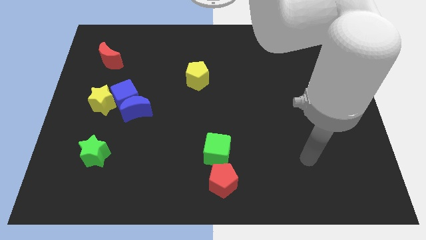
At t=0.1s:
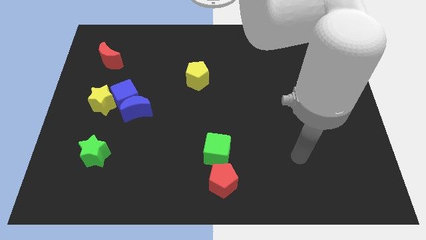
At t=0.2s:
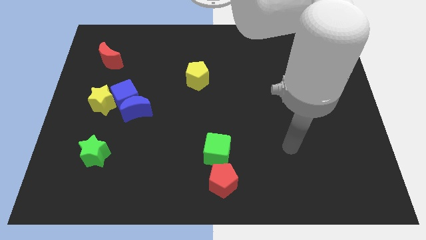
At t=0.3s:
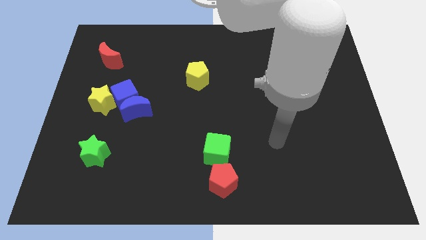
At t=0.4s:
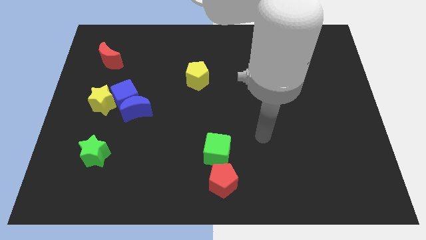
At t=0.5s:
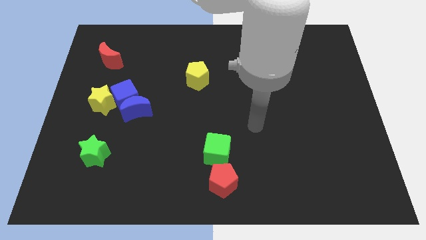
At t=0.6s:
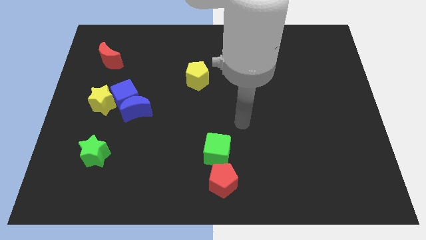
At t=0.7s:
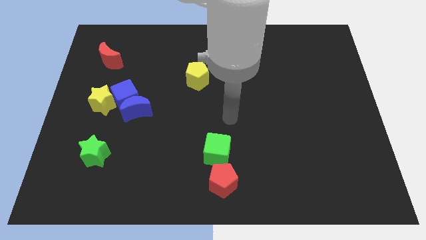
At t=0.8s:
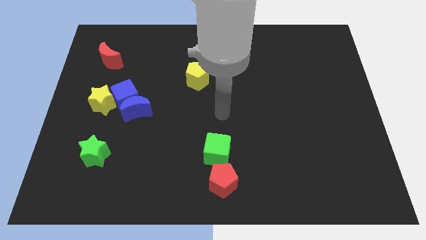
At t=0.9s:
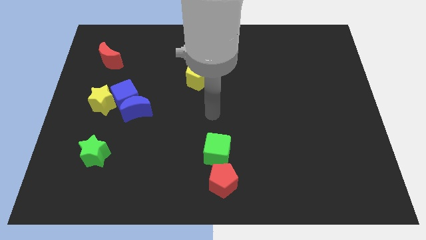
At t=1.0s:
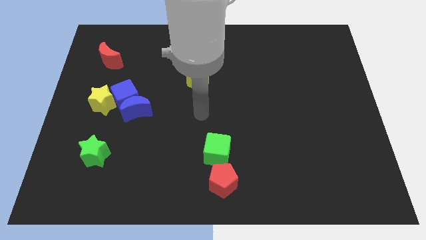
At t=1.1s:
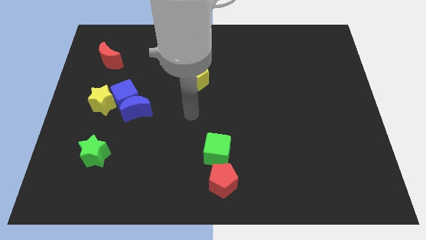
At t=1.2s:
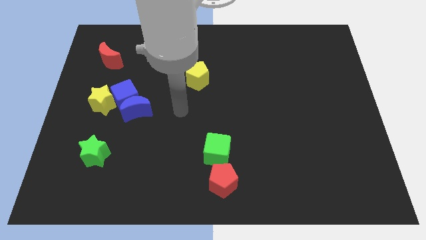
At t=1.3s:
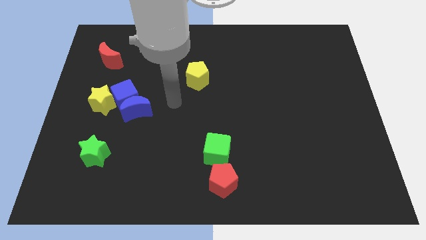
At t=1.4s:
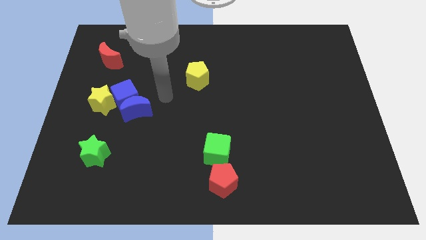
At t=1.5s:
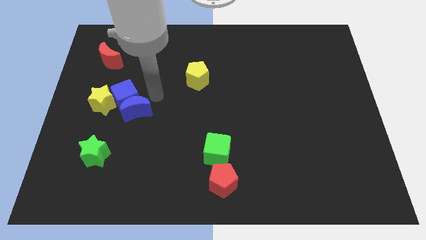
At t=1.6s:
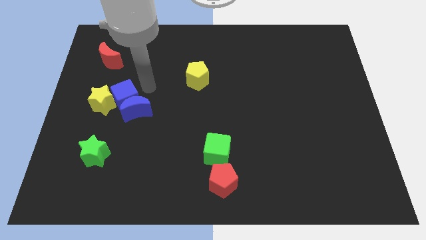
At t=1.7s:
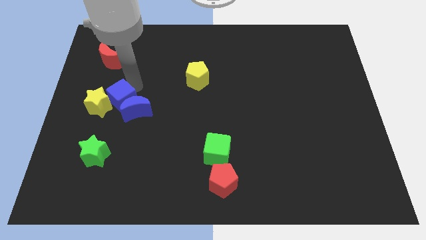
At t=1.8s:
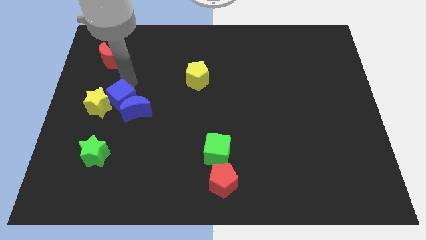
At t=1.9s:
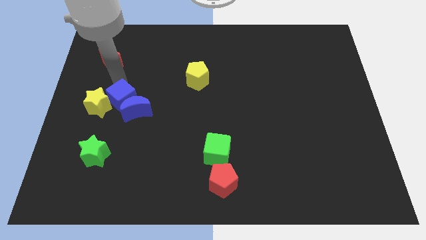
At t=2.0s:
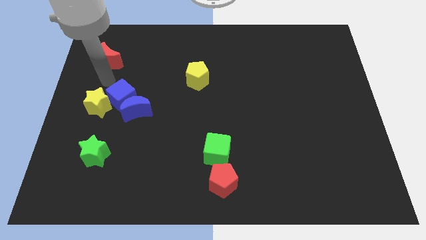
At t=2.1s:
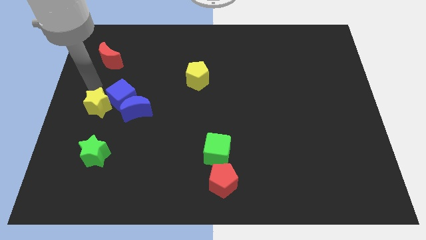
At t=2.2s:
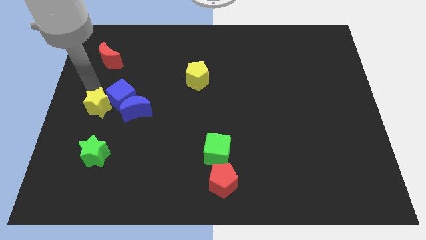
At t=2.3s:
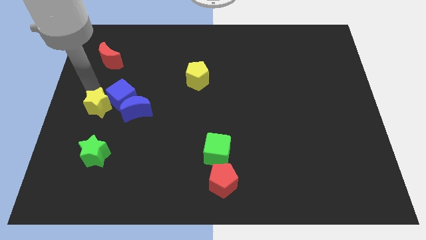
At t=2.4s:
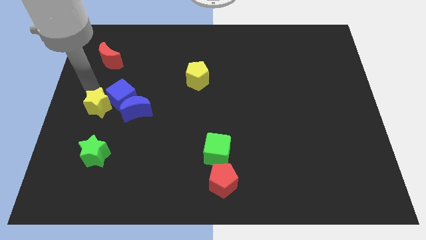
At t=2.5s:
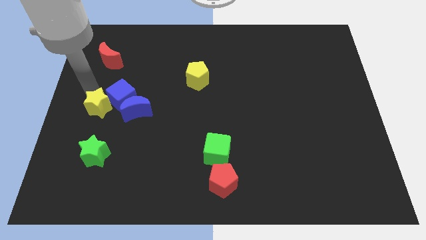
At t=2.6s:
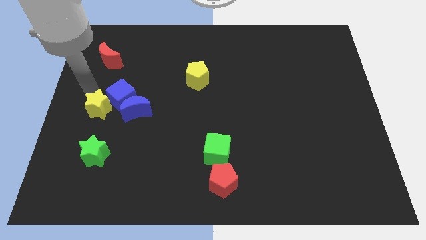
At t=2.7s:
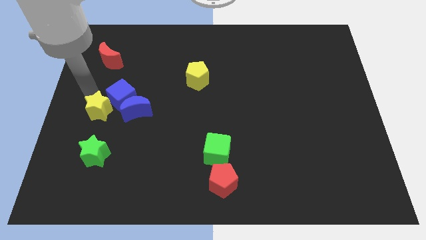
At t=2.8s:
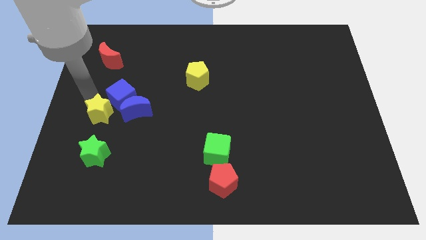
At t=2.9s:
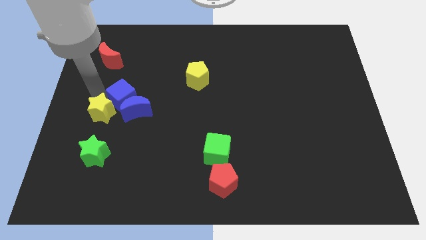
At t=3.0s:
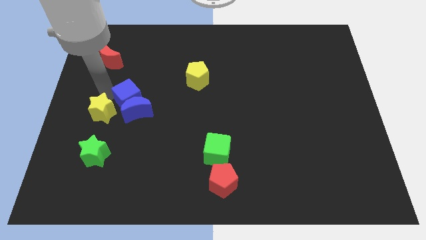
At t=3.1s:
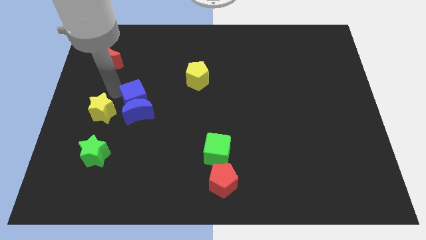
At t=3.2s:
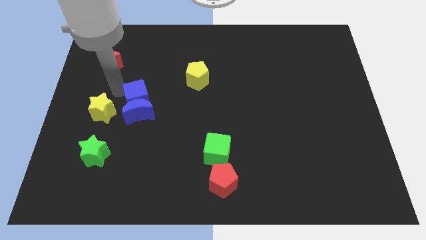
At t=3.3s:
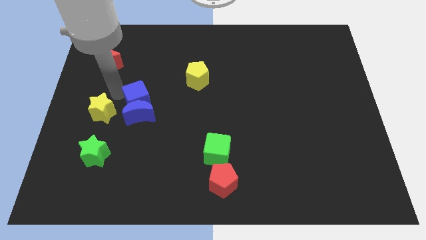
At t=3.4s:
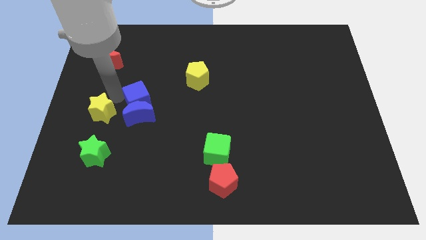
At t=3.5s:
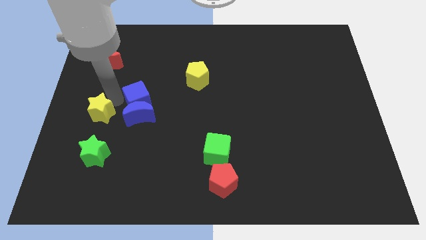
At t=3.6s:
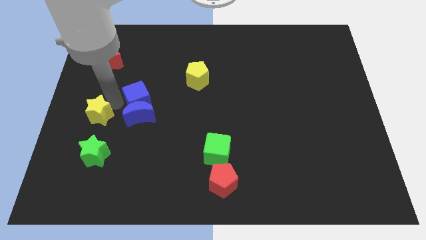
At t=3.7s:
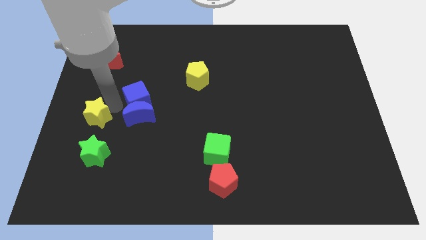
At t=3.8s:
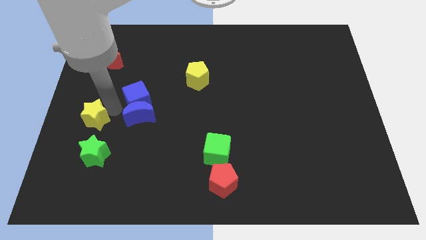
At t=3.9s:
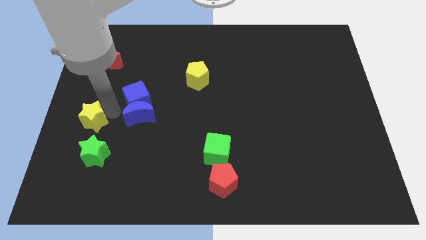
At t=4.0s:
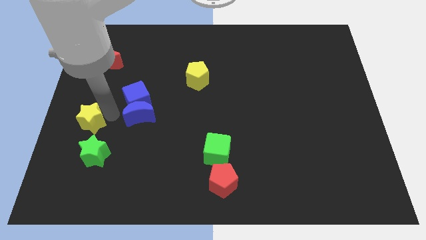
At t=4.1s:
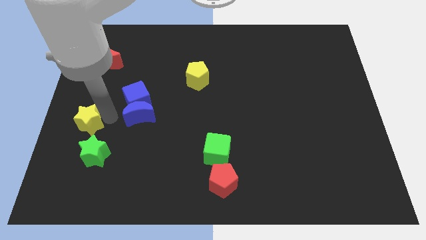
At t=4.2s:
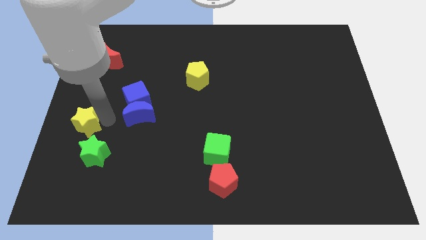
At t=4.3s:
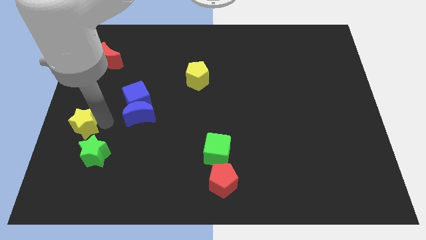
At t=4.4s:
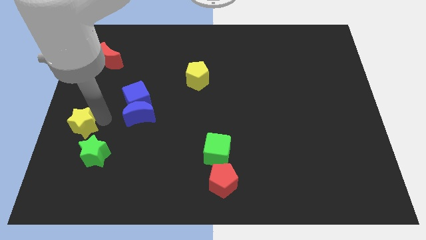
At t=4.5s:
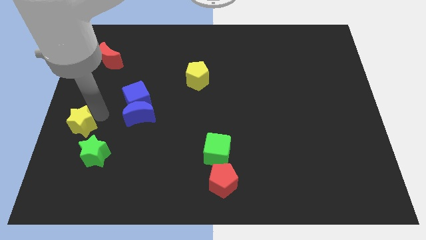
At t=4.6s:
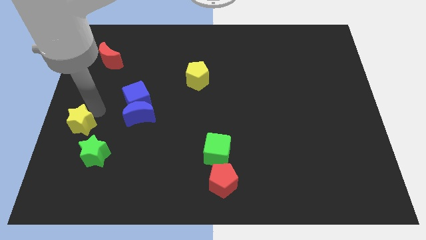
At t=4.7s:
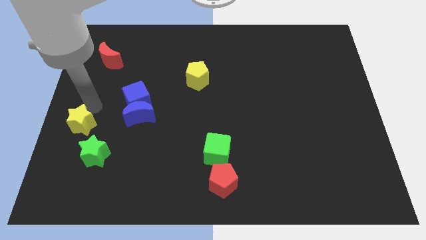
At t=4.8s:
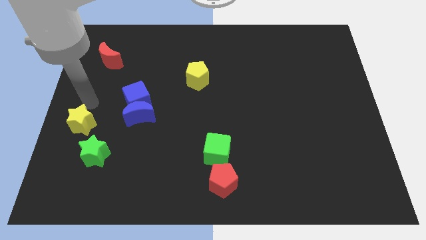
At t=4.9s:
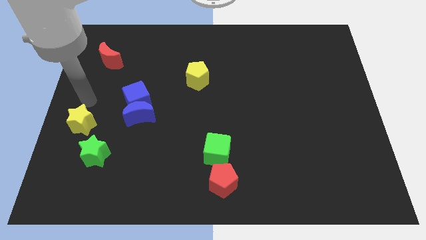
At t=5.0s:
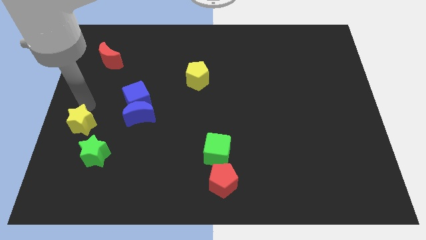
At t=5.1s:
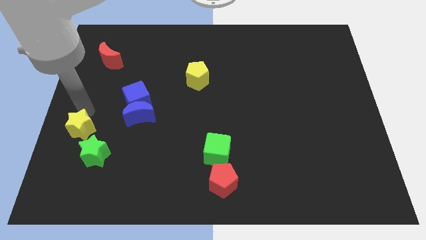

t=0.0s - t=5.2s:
move the yellow star down a little

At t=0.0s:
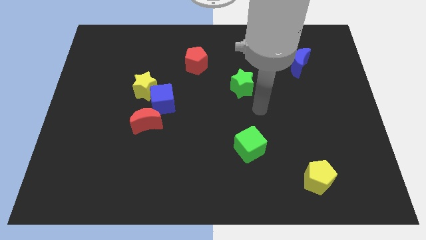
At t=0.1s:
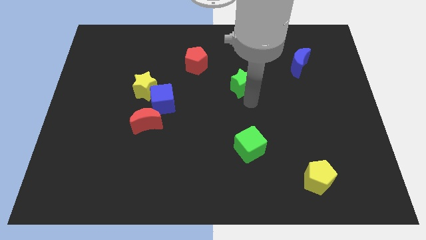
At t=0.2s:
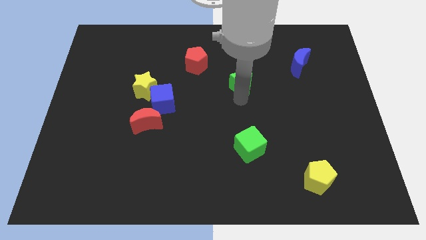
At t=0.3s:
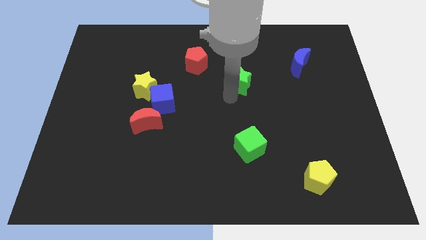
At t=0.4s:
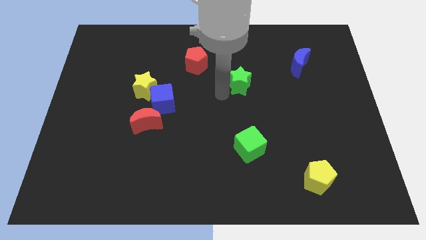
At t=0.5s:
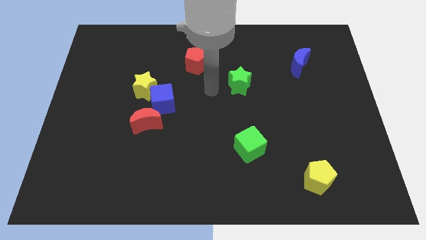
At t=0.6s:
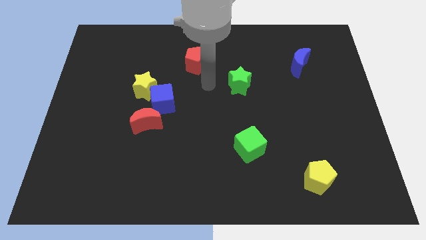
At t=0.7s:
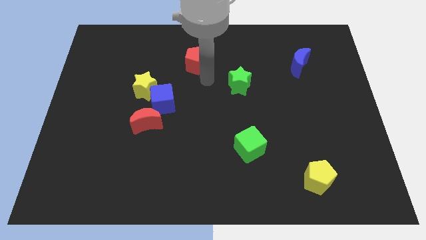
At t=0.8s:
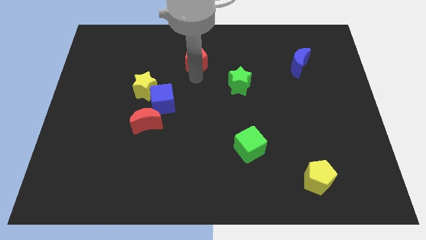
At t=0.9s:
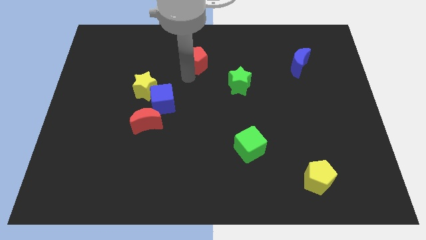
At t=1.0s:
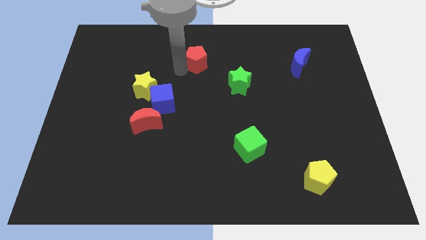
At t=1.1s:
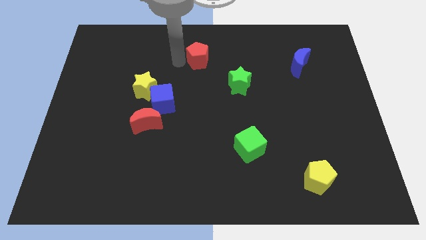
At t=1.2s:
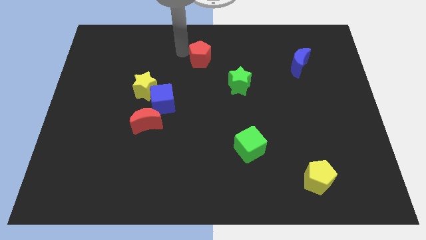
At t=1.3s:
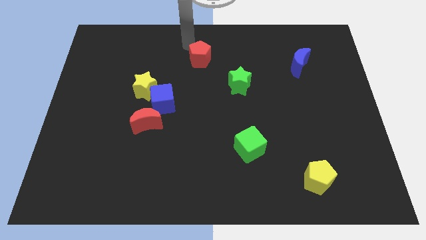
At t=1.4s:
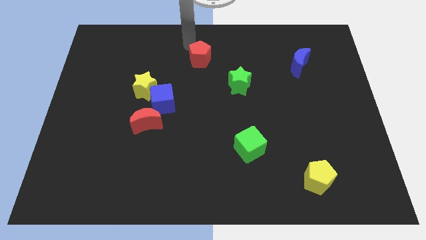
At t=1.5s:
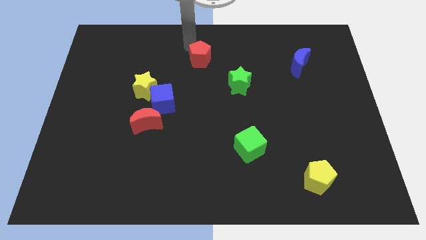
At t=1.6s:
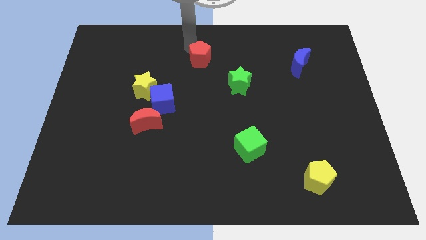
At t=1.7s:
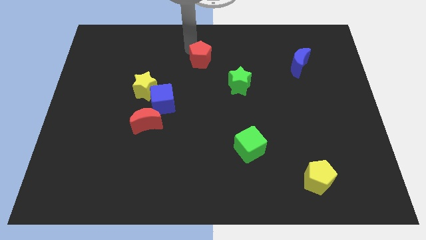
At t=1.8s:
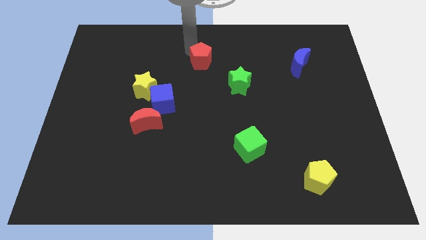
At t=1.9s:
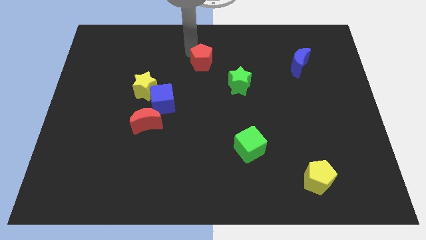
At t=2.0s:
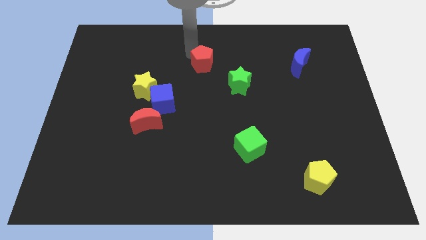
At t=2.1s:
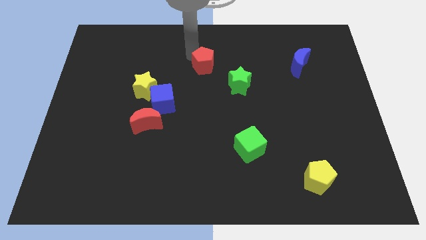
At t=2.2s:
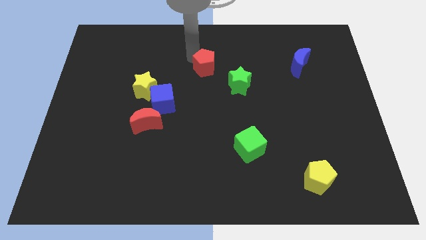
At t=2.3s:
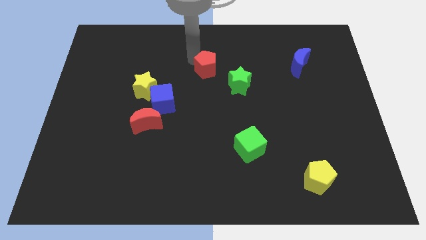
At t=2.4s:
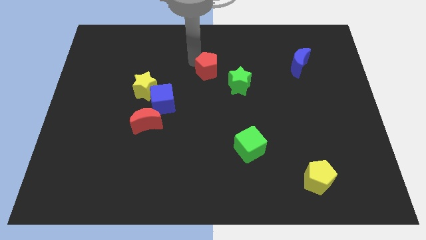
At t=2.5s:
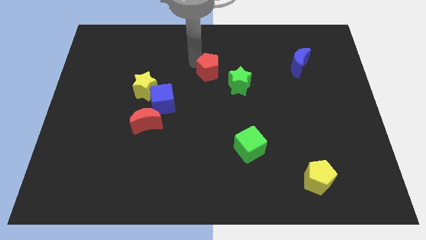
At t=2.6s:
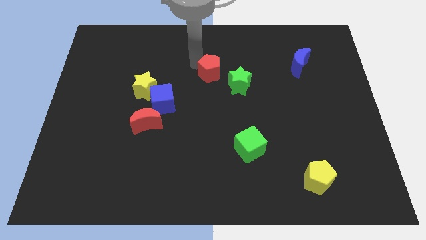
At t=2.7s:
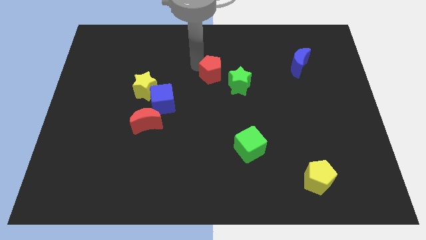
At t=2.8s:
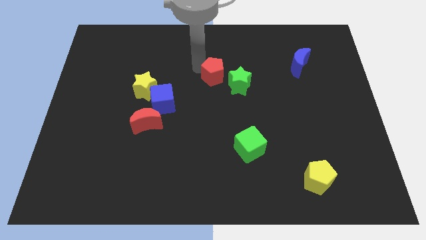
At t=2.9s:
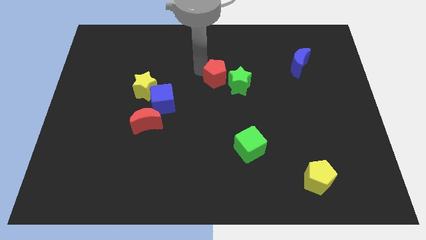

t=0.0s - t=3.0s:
slightly slide the red pentagon down and to the right
